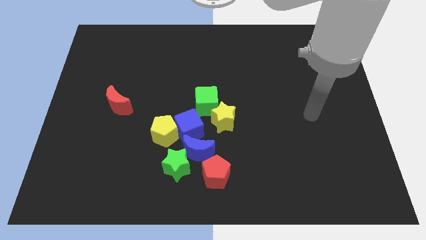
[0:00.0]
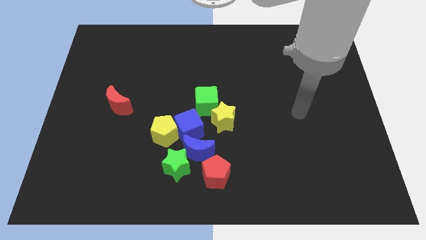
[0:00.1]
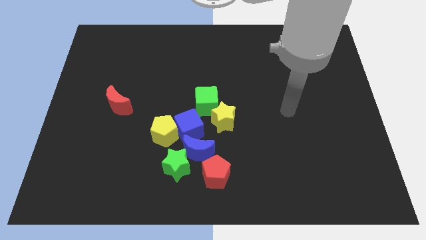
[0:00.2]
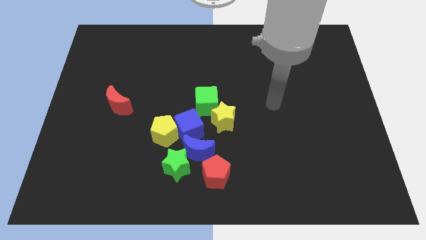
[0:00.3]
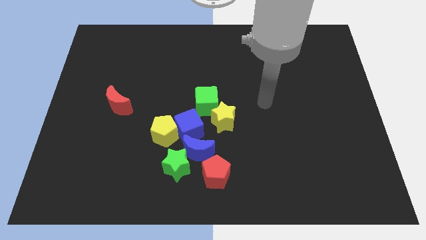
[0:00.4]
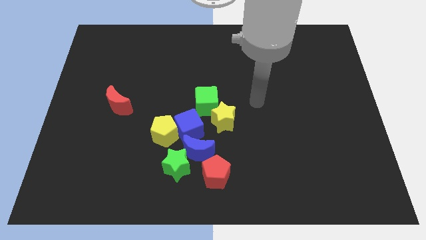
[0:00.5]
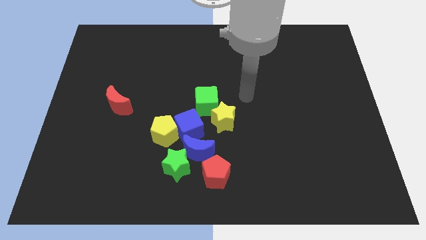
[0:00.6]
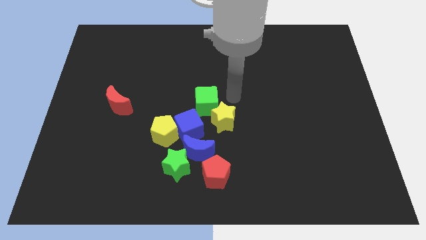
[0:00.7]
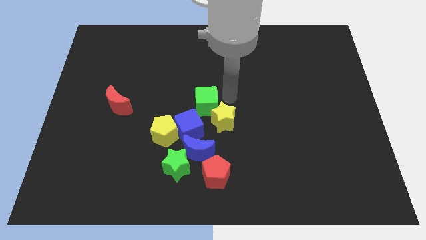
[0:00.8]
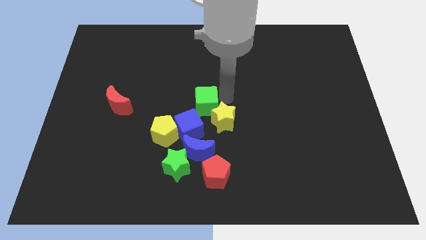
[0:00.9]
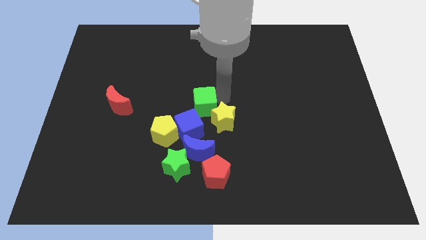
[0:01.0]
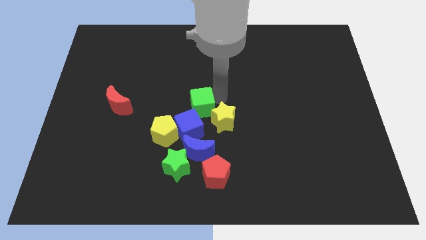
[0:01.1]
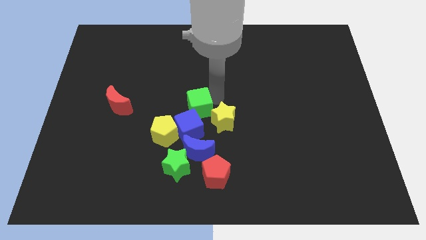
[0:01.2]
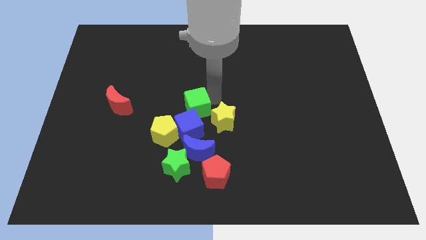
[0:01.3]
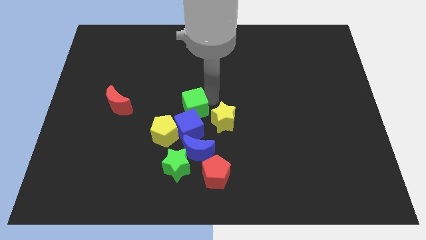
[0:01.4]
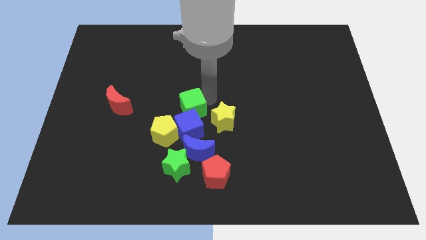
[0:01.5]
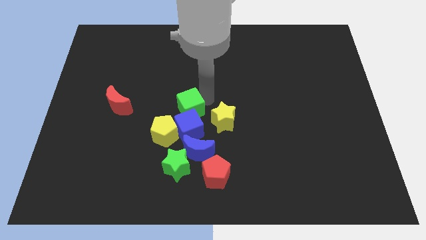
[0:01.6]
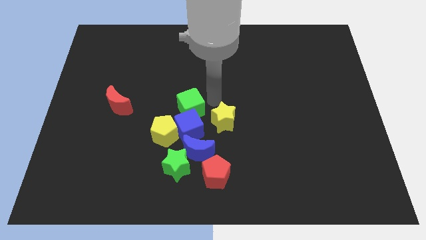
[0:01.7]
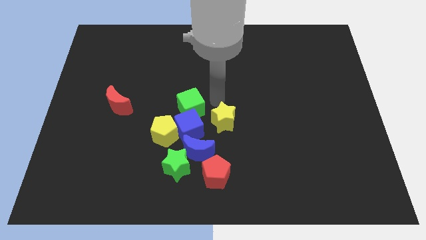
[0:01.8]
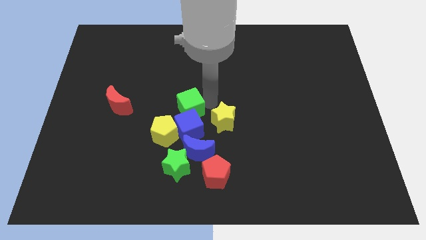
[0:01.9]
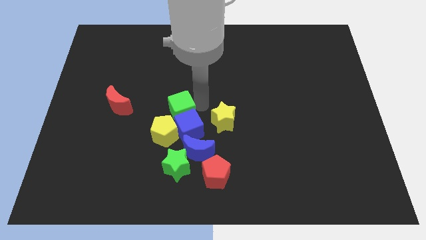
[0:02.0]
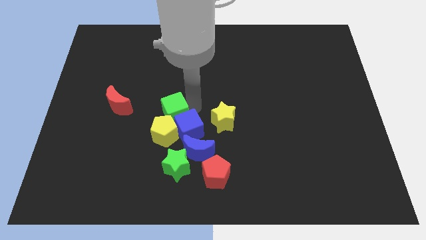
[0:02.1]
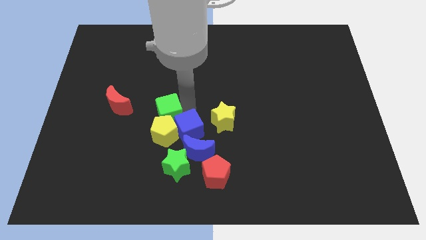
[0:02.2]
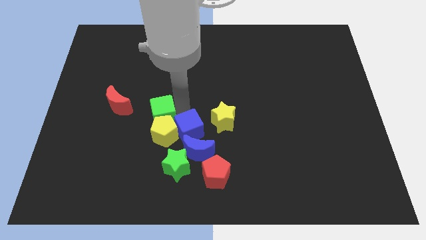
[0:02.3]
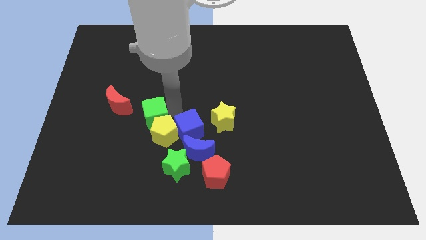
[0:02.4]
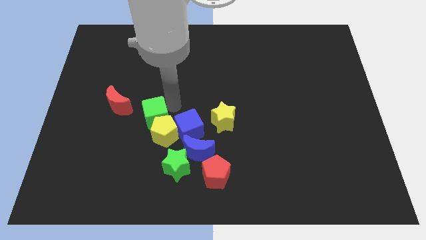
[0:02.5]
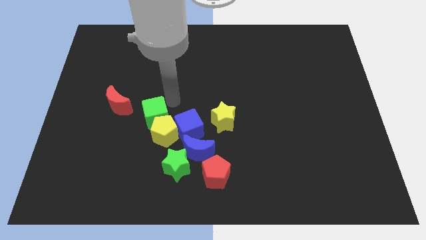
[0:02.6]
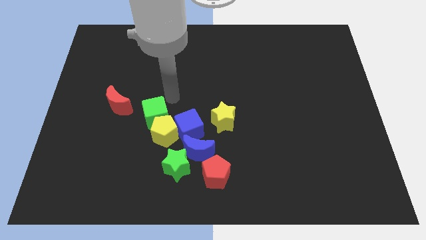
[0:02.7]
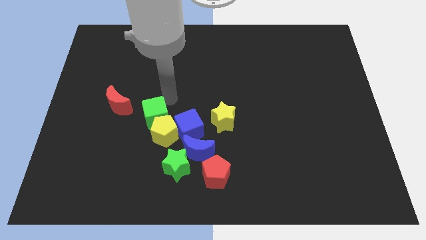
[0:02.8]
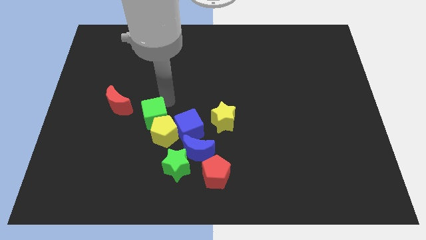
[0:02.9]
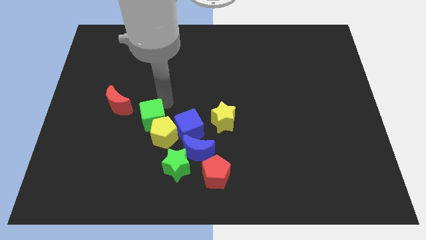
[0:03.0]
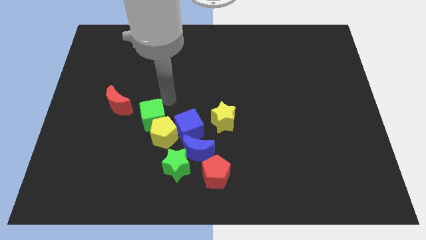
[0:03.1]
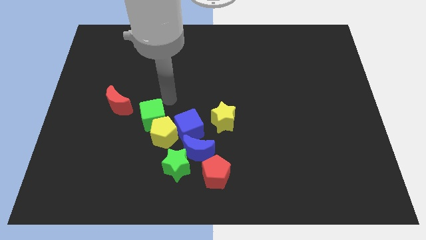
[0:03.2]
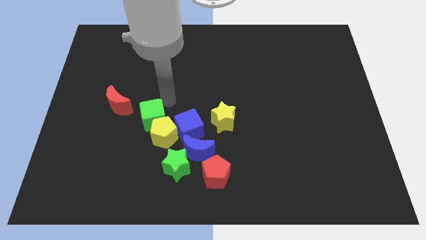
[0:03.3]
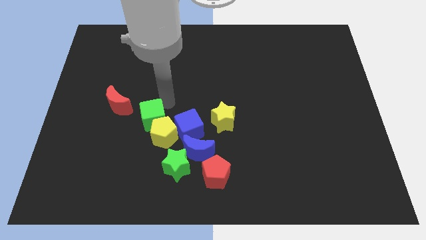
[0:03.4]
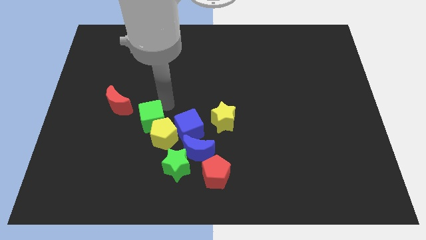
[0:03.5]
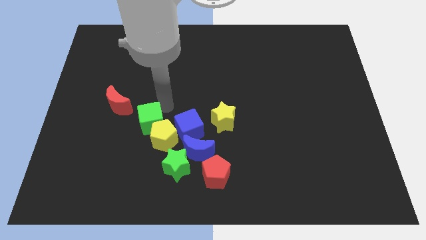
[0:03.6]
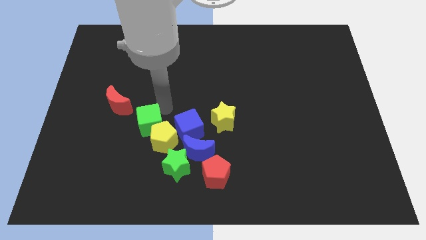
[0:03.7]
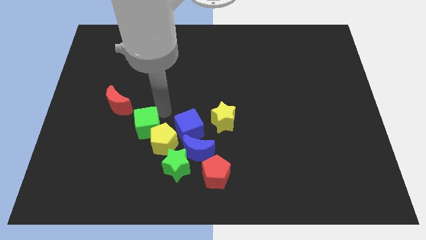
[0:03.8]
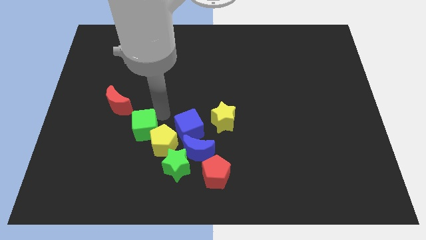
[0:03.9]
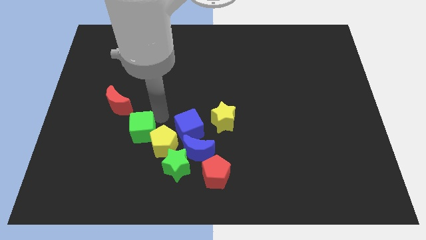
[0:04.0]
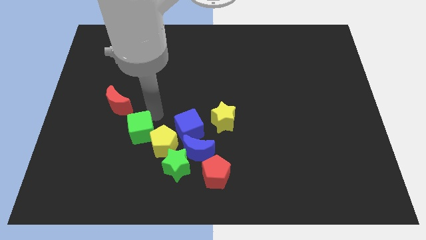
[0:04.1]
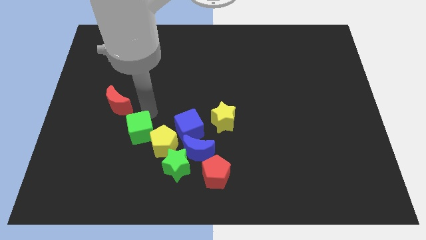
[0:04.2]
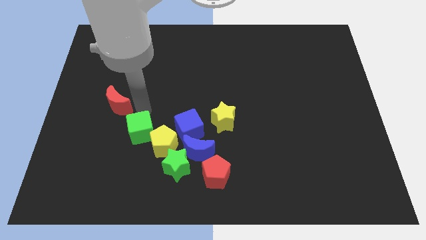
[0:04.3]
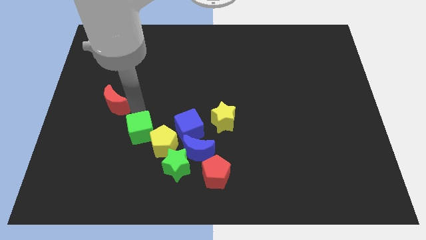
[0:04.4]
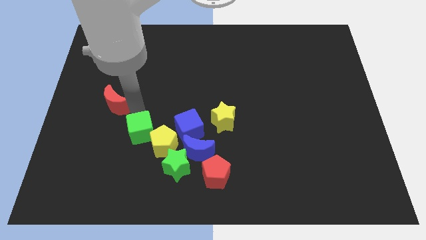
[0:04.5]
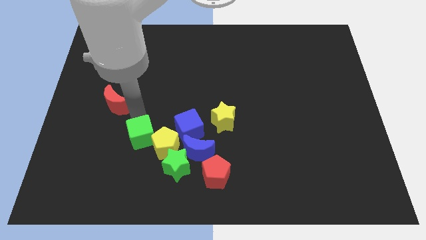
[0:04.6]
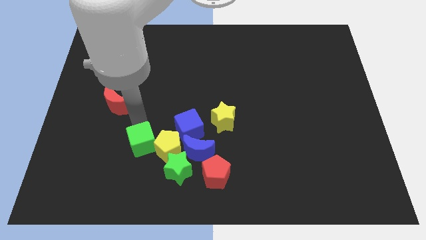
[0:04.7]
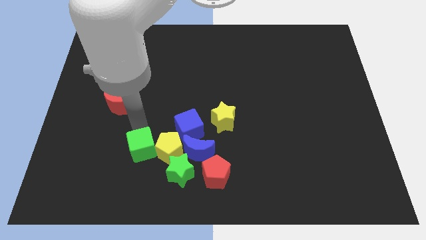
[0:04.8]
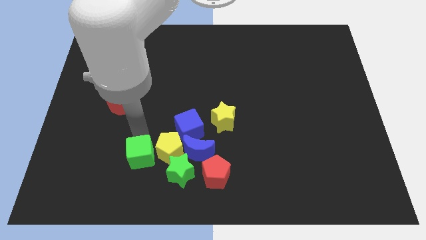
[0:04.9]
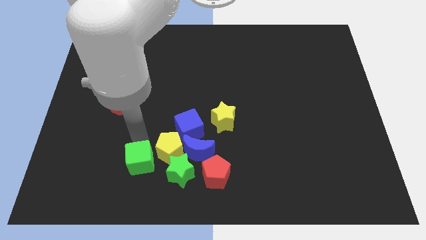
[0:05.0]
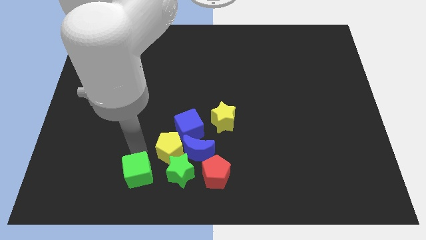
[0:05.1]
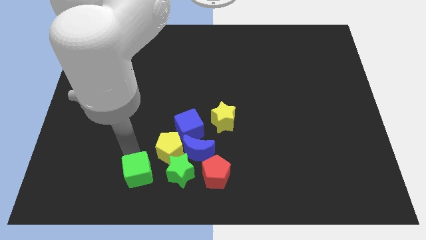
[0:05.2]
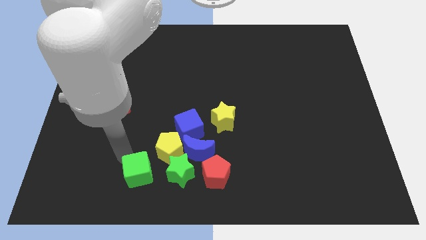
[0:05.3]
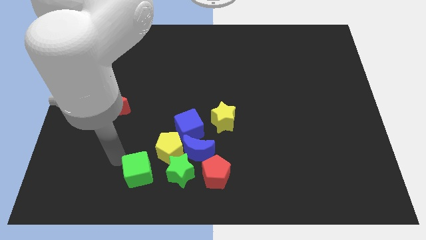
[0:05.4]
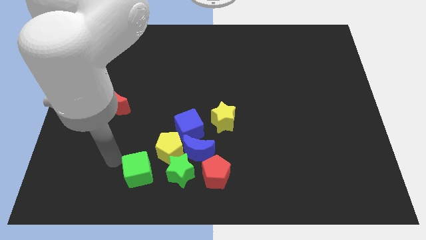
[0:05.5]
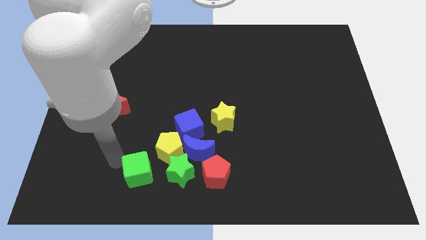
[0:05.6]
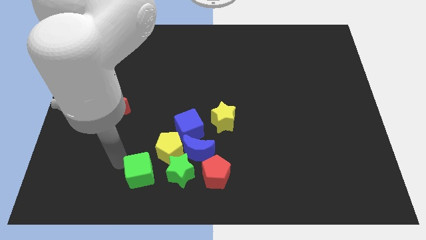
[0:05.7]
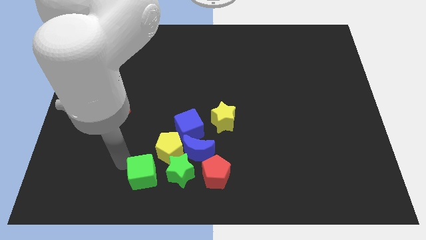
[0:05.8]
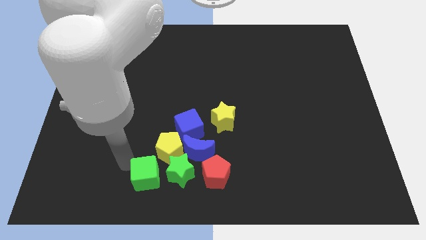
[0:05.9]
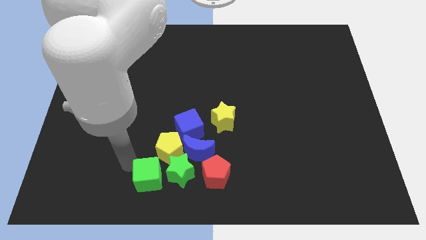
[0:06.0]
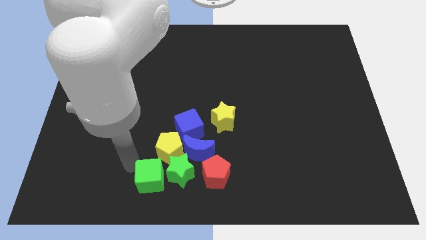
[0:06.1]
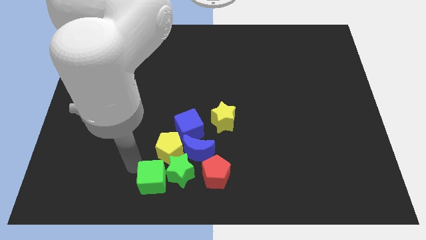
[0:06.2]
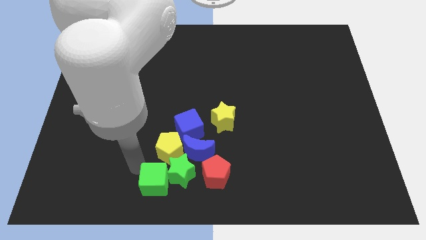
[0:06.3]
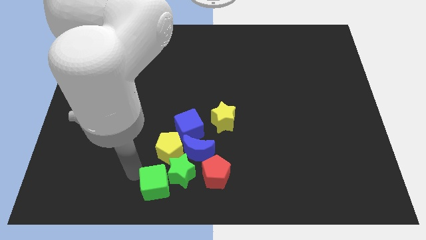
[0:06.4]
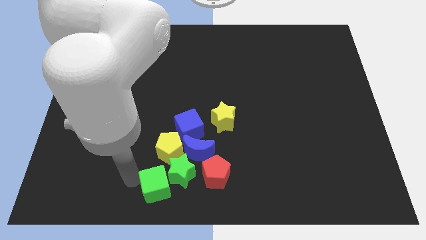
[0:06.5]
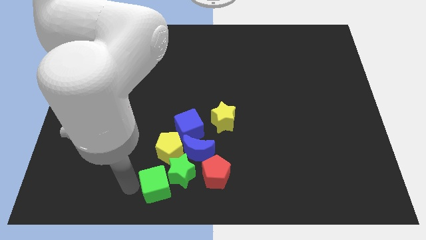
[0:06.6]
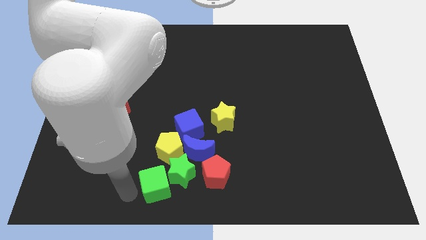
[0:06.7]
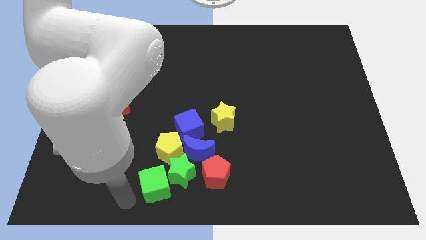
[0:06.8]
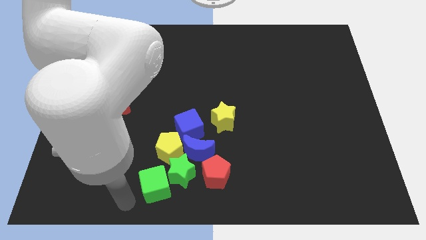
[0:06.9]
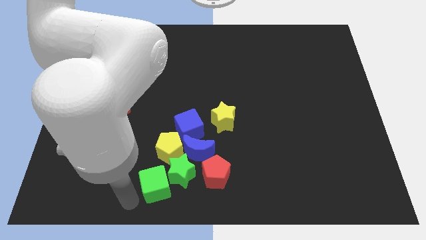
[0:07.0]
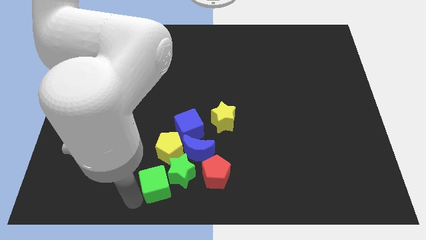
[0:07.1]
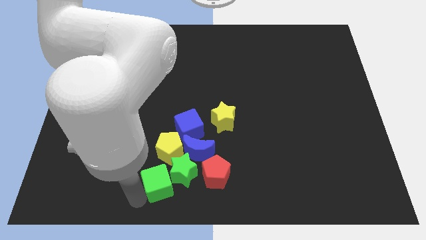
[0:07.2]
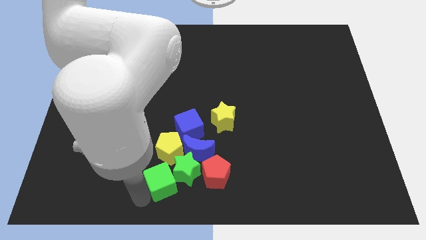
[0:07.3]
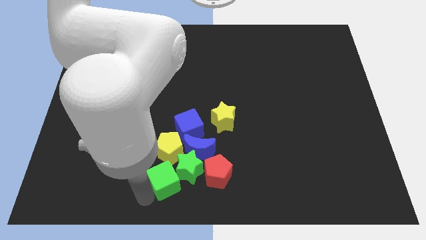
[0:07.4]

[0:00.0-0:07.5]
push the green cube below the blue cube
